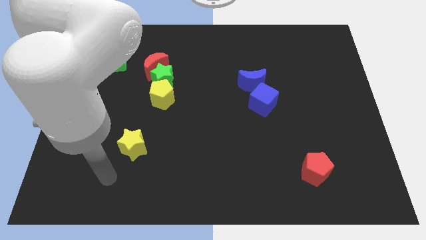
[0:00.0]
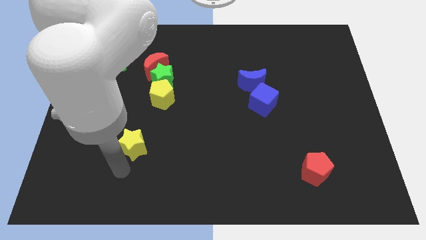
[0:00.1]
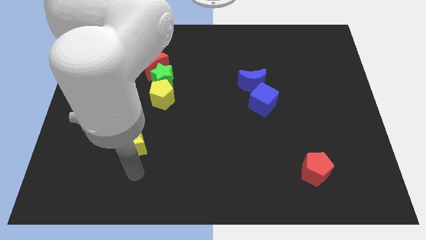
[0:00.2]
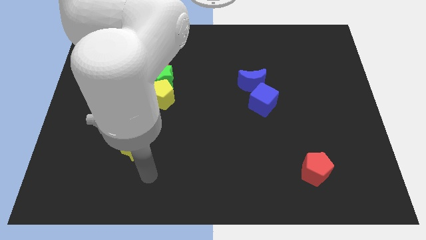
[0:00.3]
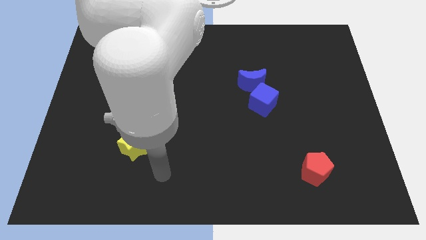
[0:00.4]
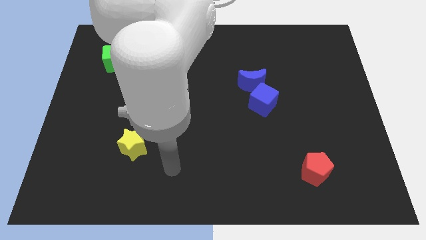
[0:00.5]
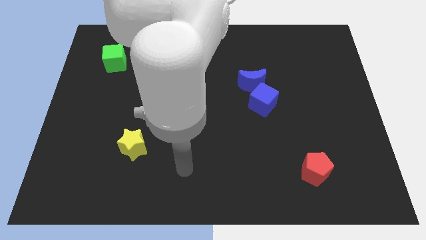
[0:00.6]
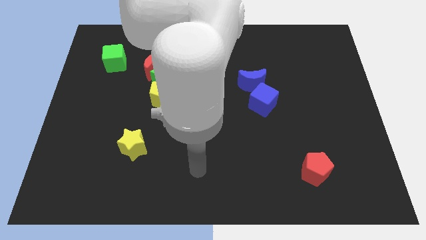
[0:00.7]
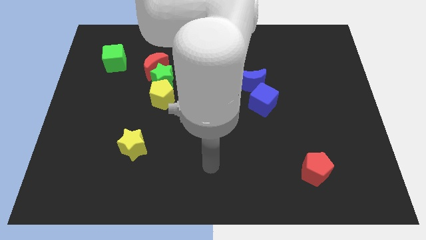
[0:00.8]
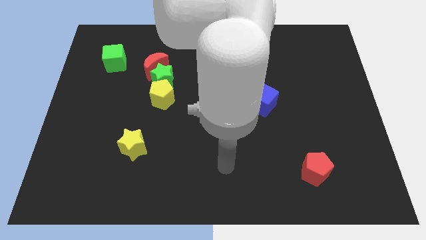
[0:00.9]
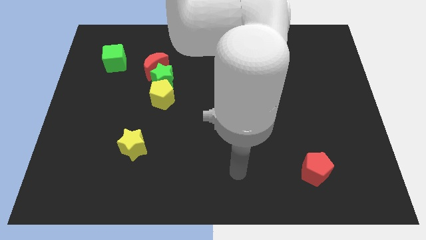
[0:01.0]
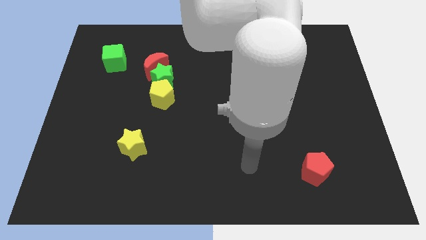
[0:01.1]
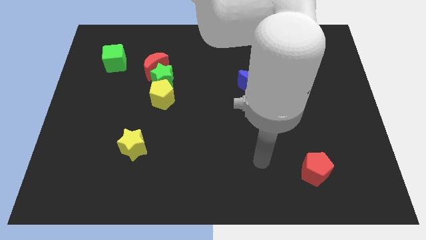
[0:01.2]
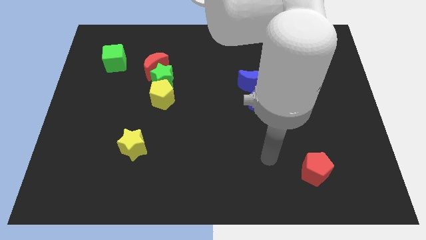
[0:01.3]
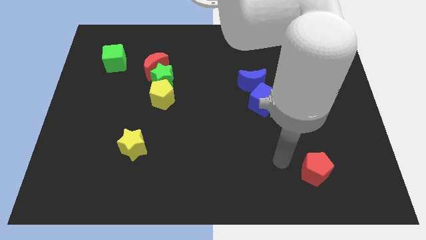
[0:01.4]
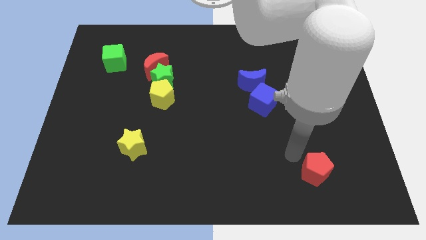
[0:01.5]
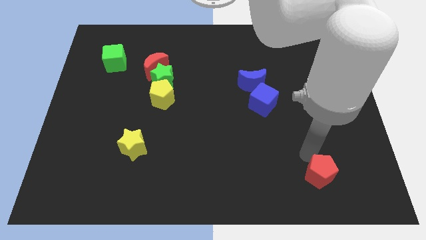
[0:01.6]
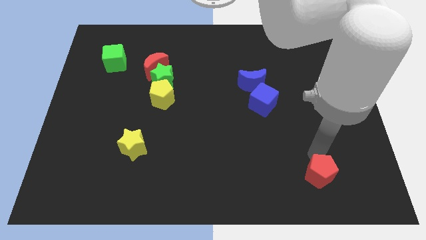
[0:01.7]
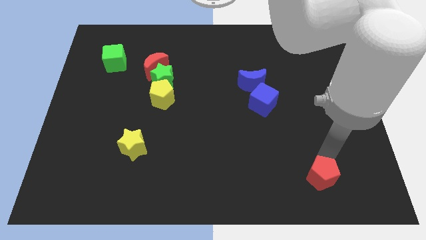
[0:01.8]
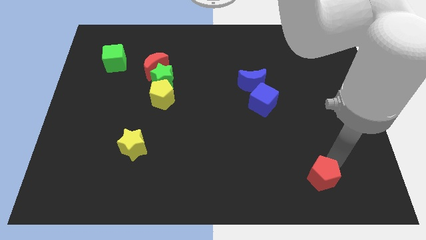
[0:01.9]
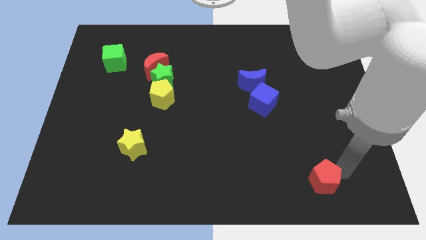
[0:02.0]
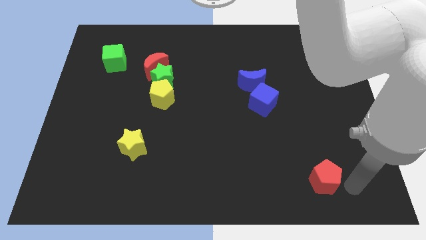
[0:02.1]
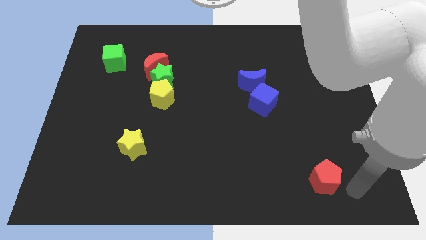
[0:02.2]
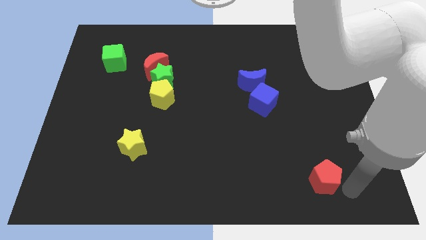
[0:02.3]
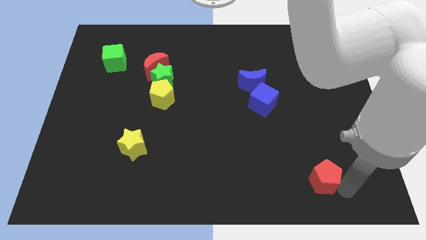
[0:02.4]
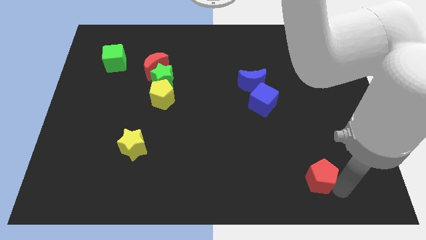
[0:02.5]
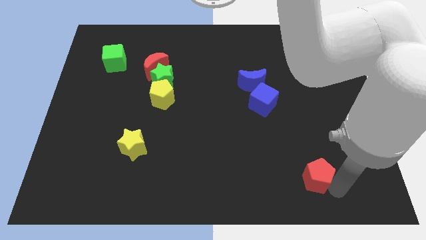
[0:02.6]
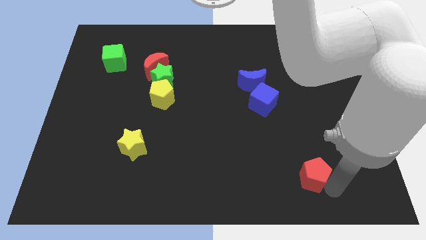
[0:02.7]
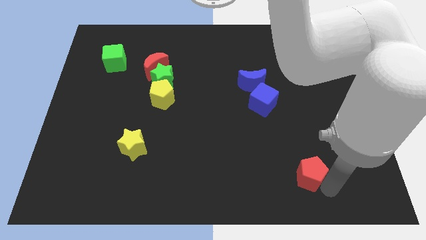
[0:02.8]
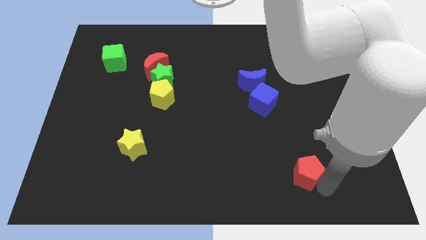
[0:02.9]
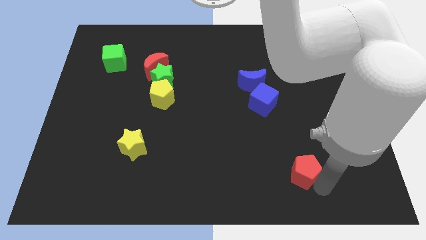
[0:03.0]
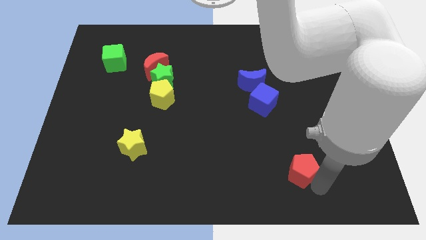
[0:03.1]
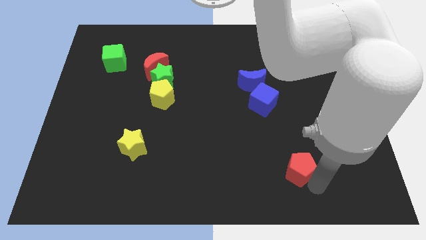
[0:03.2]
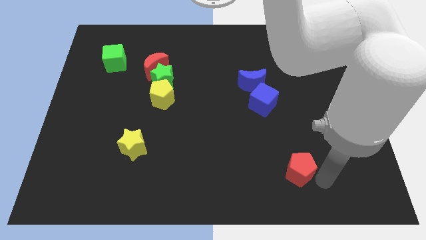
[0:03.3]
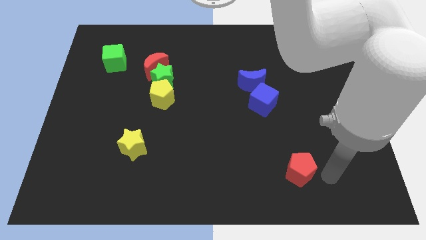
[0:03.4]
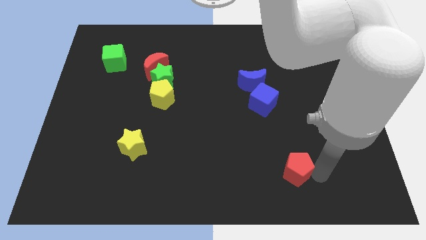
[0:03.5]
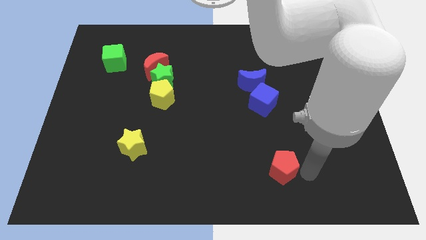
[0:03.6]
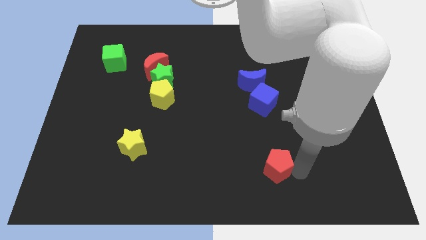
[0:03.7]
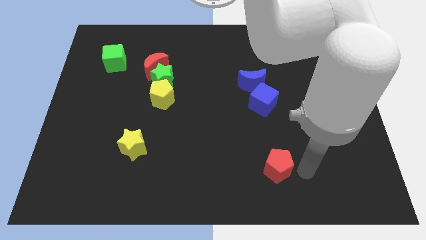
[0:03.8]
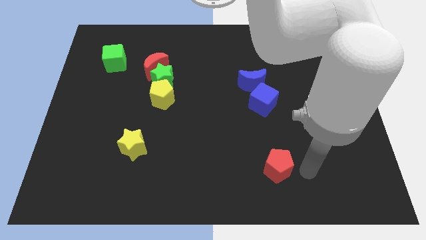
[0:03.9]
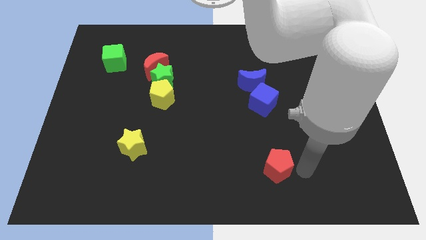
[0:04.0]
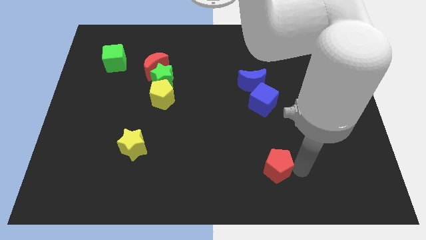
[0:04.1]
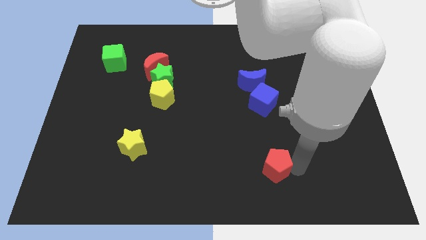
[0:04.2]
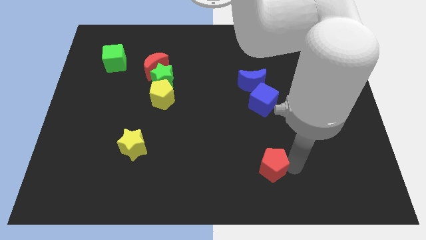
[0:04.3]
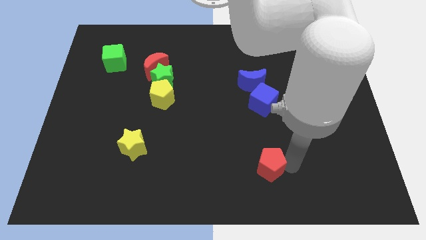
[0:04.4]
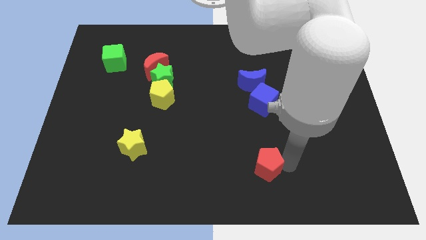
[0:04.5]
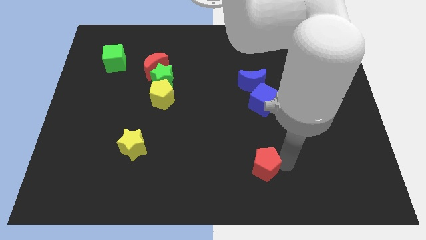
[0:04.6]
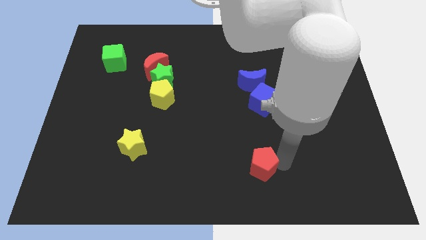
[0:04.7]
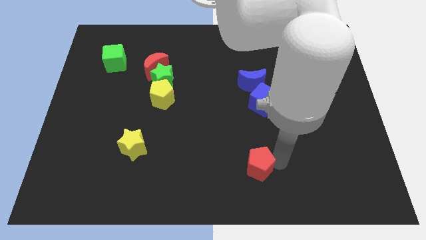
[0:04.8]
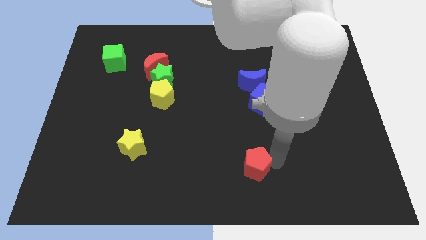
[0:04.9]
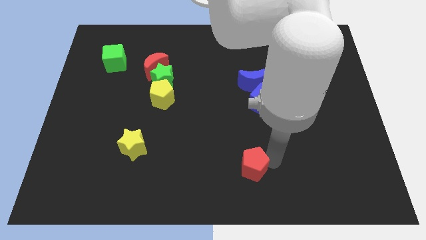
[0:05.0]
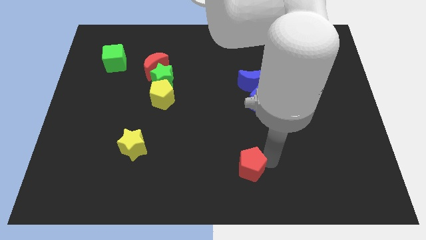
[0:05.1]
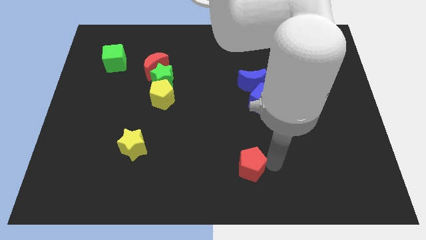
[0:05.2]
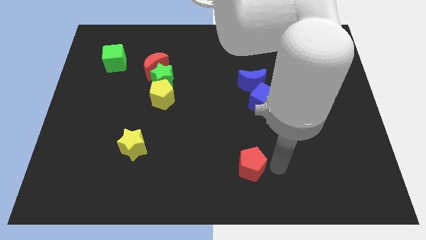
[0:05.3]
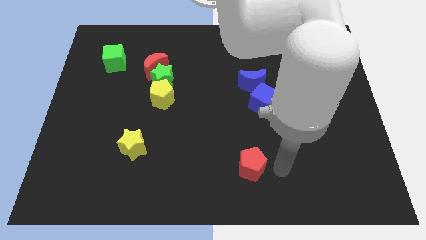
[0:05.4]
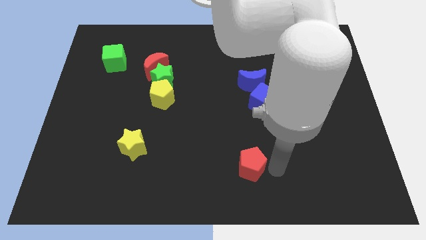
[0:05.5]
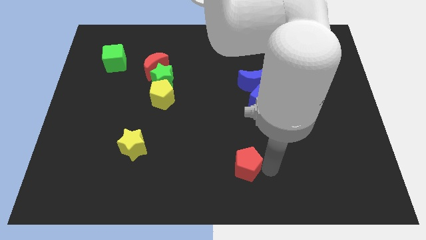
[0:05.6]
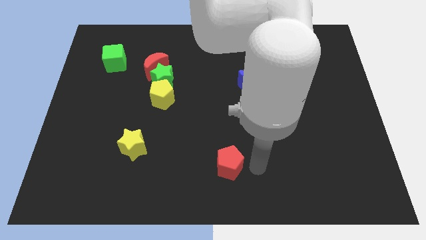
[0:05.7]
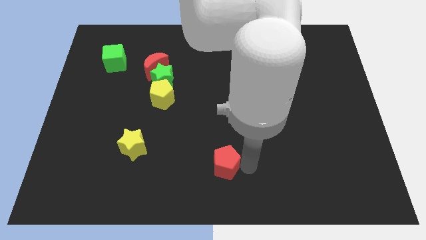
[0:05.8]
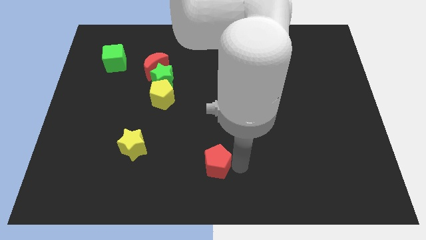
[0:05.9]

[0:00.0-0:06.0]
slide the red pentagon to the left

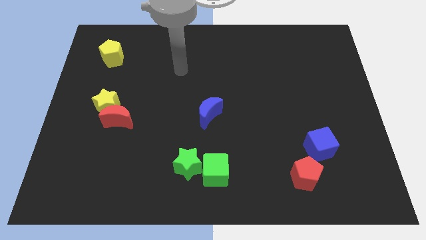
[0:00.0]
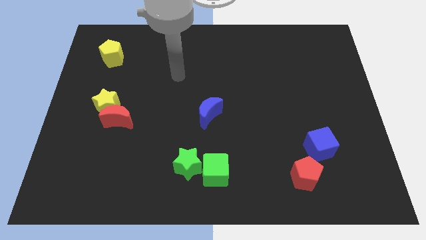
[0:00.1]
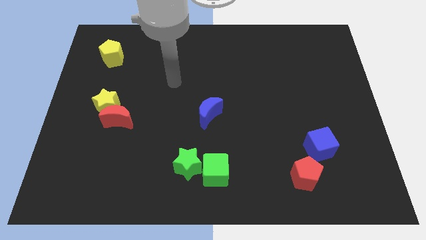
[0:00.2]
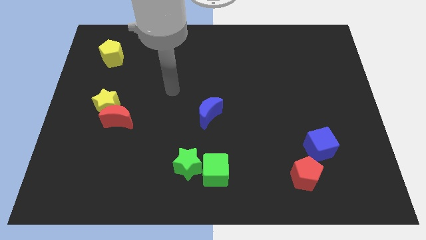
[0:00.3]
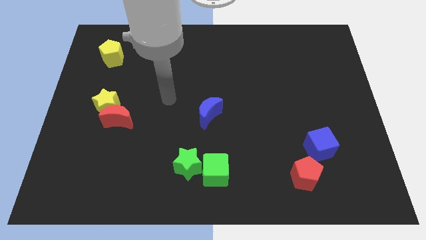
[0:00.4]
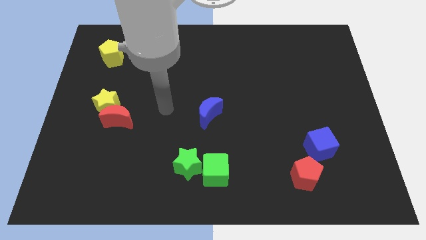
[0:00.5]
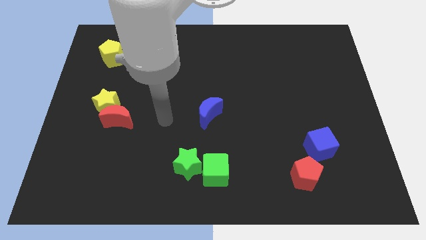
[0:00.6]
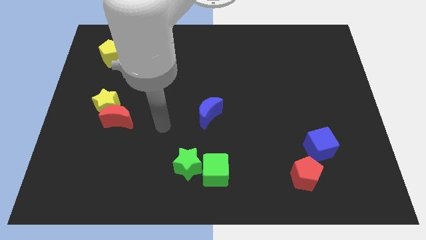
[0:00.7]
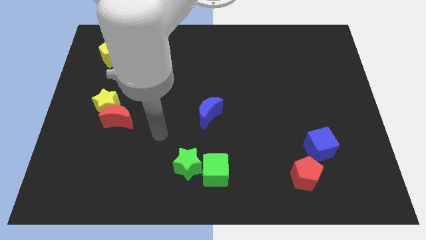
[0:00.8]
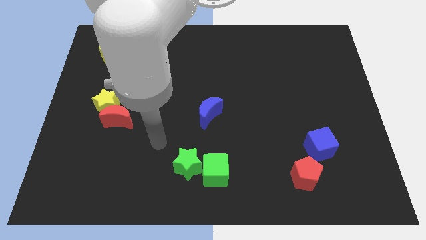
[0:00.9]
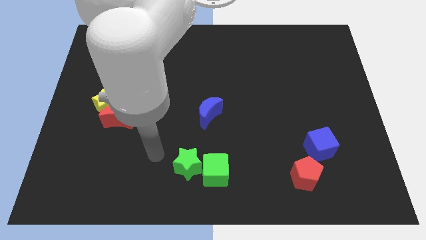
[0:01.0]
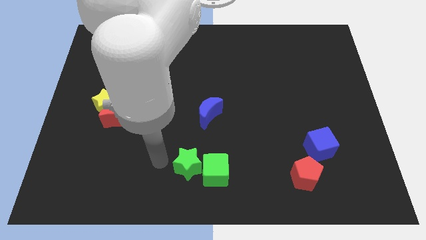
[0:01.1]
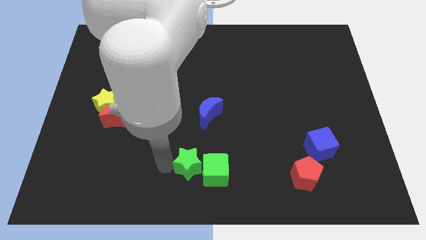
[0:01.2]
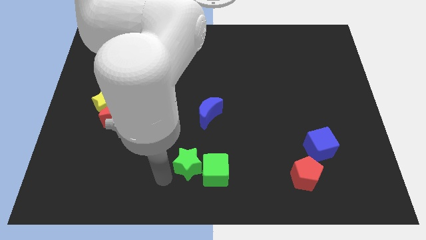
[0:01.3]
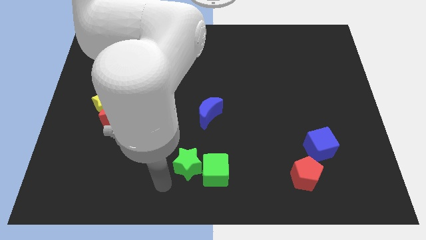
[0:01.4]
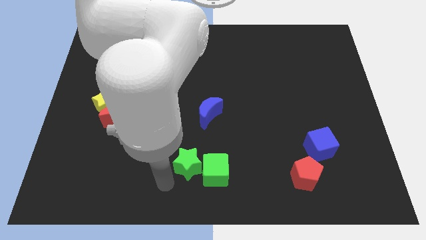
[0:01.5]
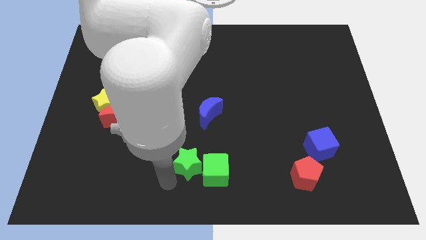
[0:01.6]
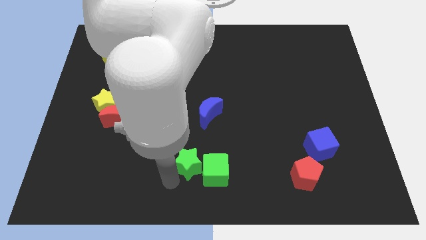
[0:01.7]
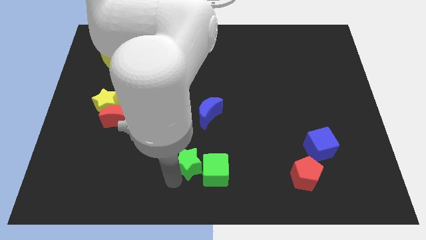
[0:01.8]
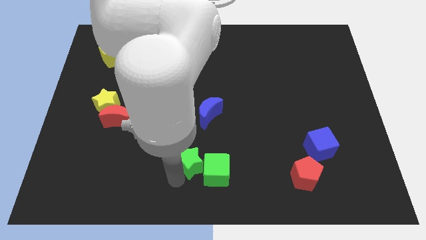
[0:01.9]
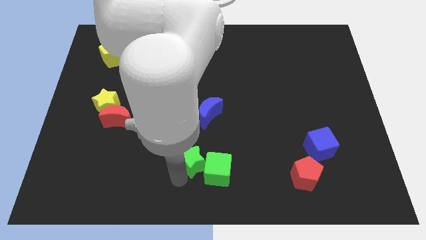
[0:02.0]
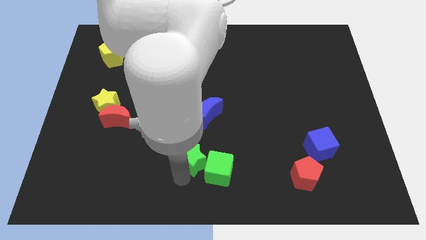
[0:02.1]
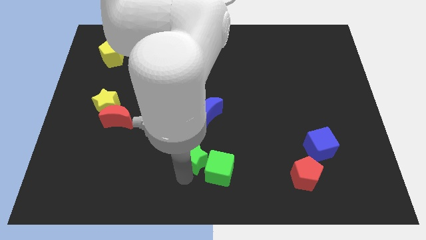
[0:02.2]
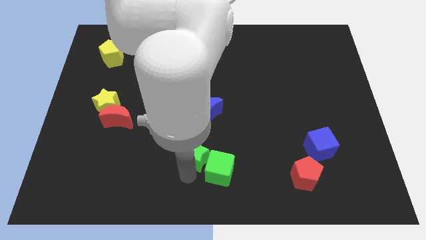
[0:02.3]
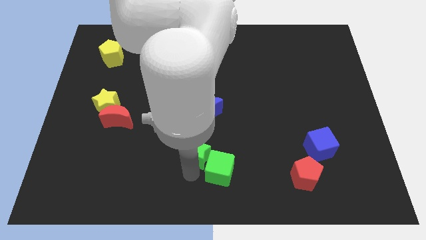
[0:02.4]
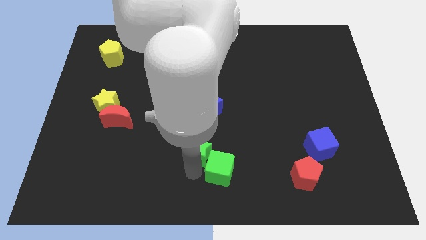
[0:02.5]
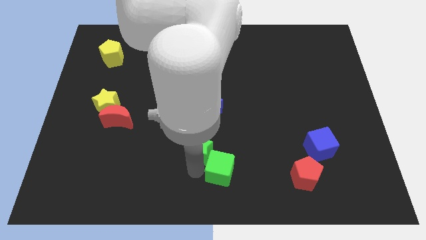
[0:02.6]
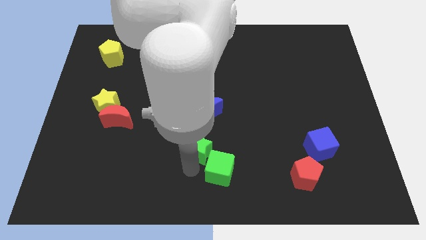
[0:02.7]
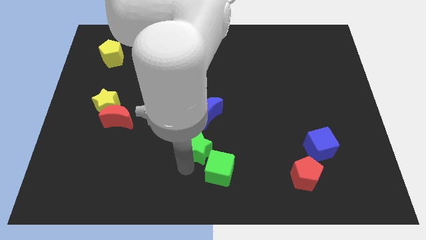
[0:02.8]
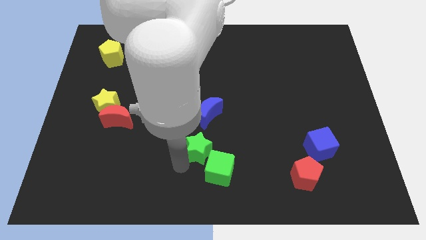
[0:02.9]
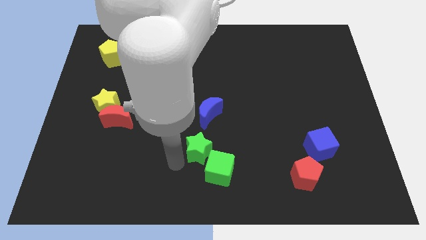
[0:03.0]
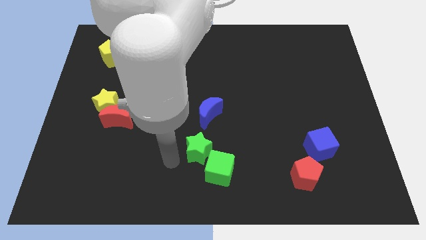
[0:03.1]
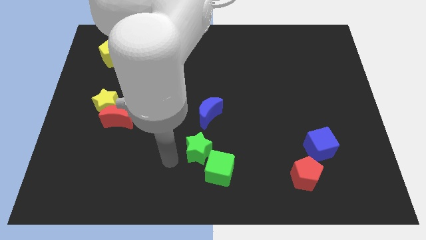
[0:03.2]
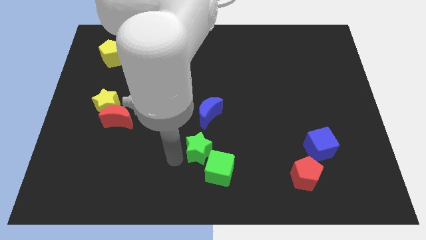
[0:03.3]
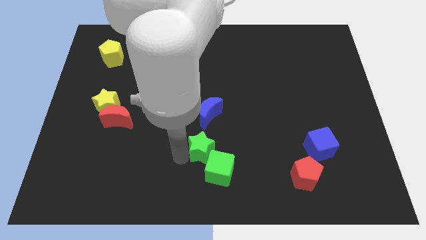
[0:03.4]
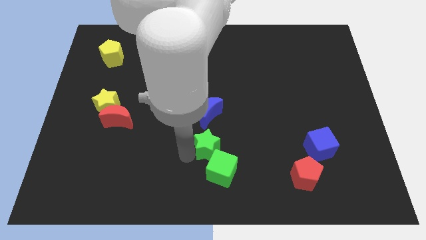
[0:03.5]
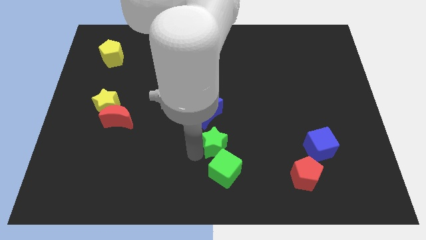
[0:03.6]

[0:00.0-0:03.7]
slightly move the green star upwards and then to the right
